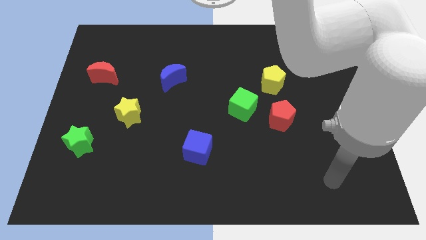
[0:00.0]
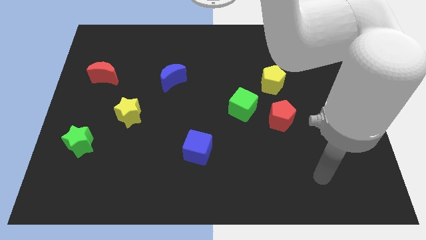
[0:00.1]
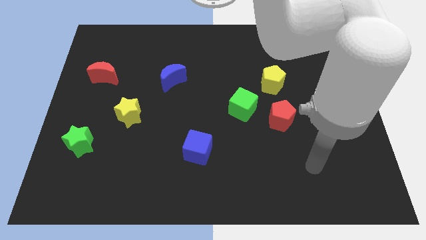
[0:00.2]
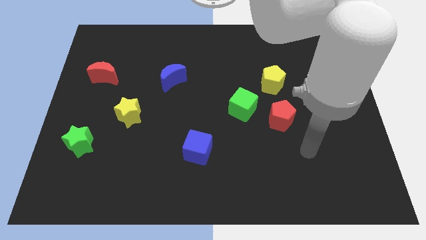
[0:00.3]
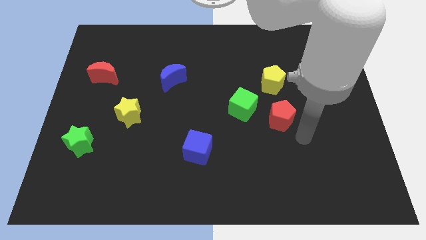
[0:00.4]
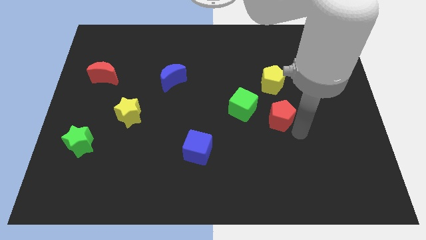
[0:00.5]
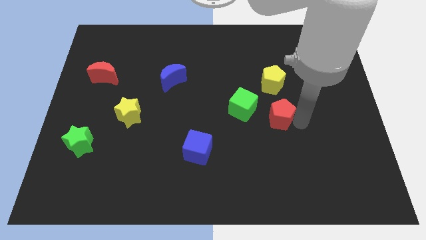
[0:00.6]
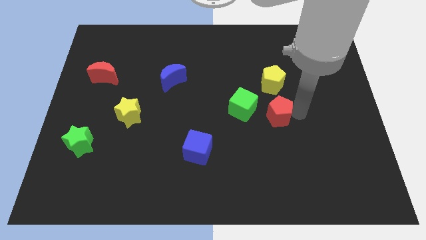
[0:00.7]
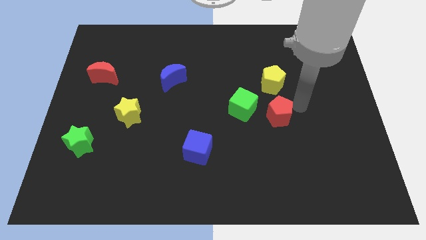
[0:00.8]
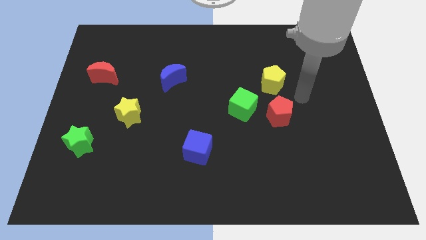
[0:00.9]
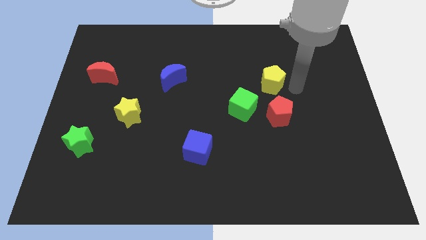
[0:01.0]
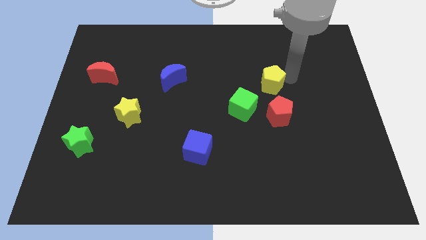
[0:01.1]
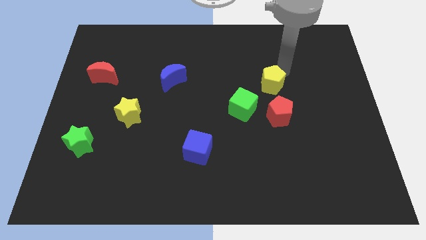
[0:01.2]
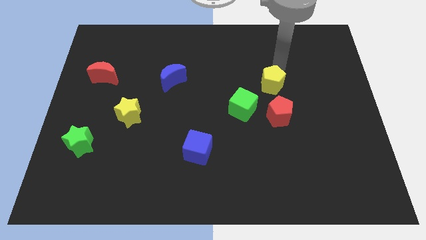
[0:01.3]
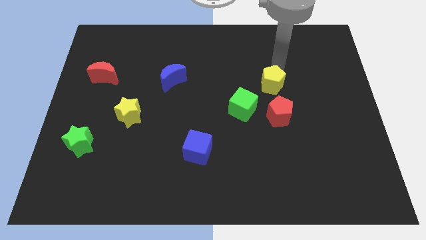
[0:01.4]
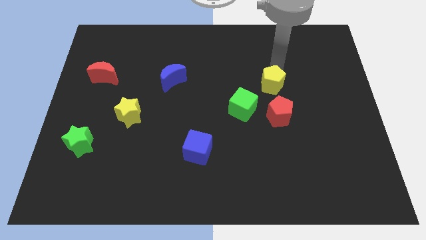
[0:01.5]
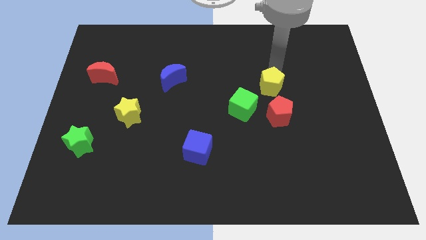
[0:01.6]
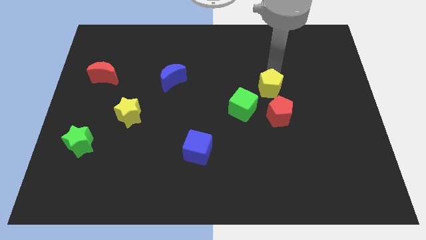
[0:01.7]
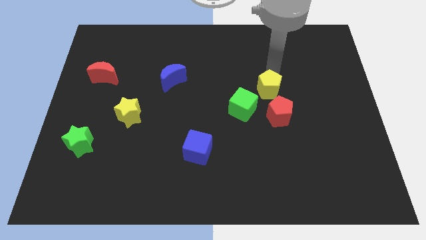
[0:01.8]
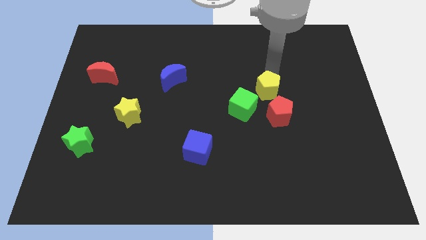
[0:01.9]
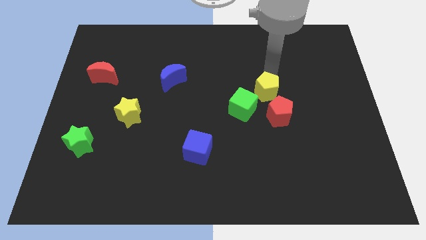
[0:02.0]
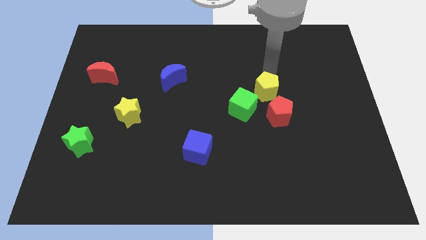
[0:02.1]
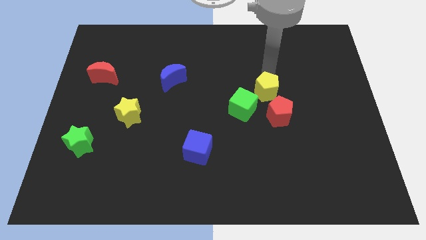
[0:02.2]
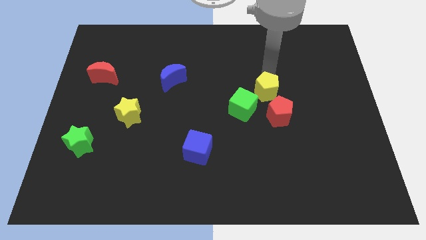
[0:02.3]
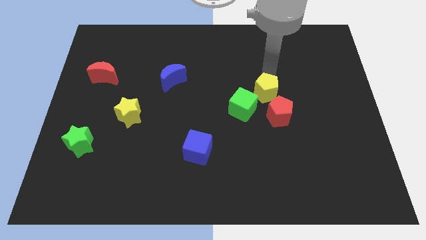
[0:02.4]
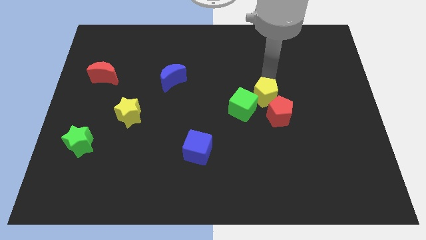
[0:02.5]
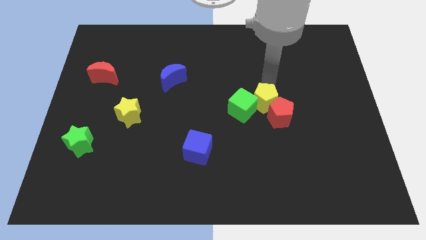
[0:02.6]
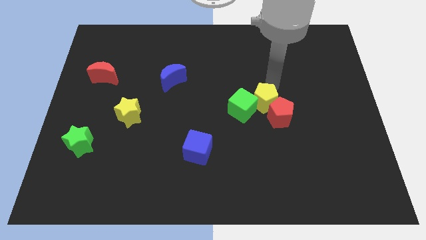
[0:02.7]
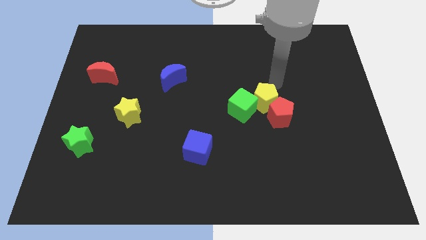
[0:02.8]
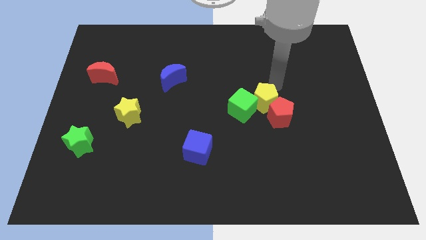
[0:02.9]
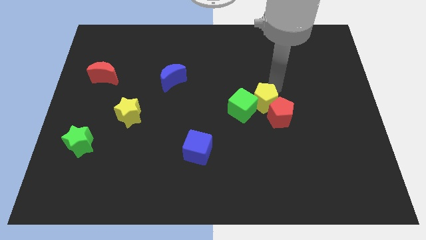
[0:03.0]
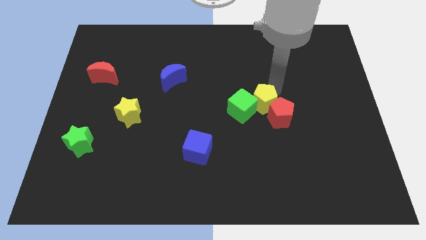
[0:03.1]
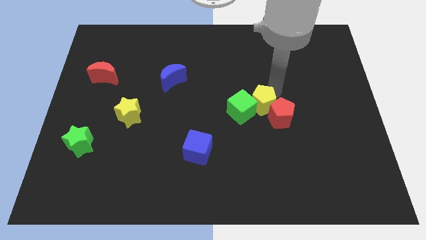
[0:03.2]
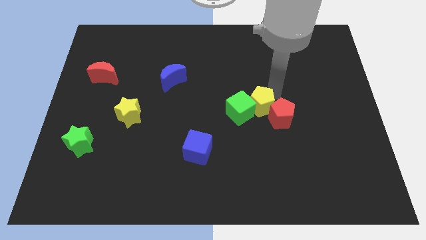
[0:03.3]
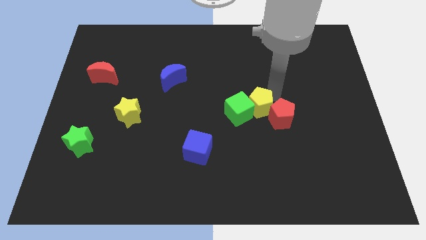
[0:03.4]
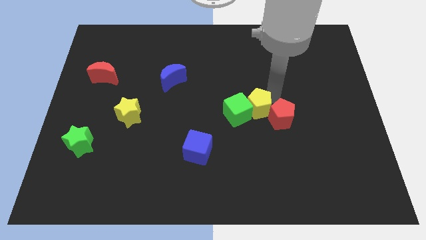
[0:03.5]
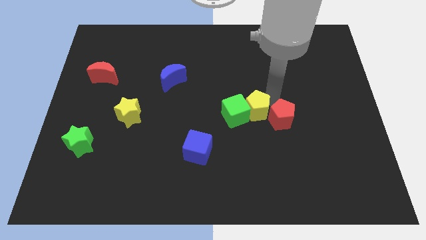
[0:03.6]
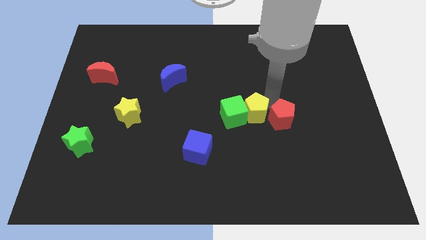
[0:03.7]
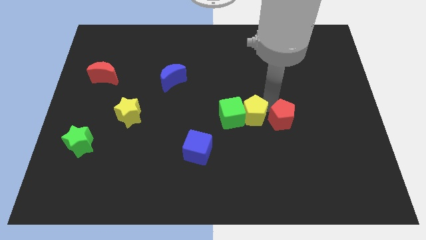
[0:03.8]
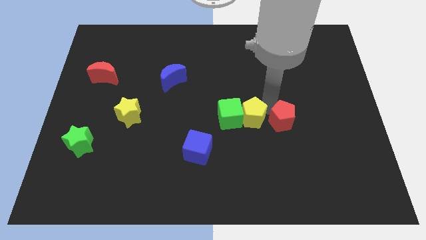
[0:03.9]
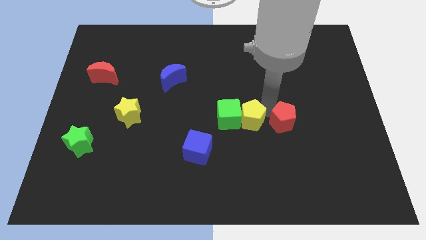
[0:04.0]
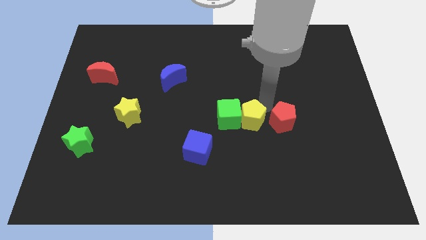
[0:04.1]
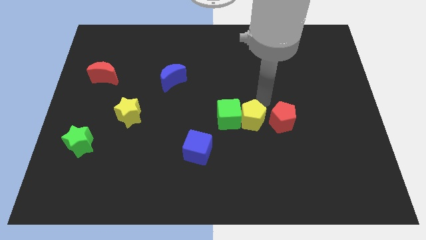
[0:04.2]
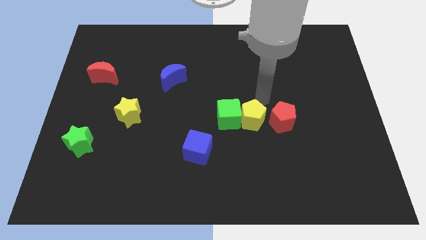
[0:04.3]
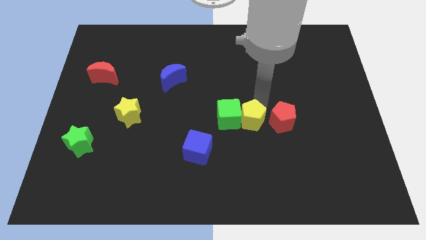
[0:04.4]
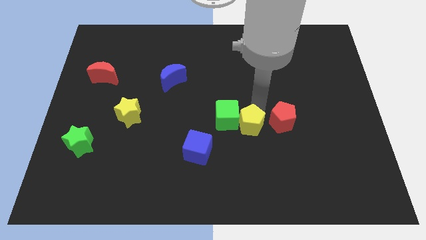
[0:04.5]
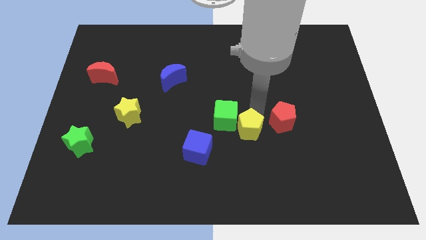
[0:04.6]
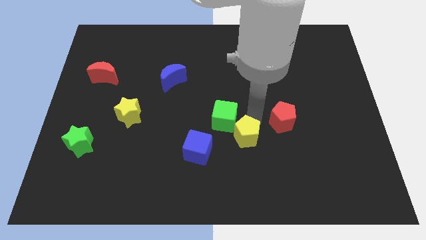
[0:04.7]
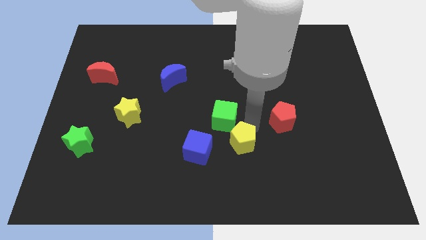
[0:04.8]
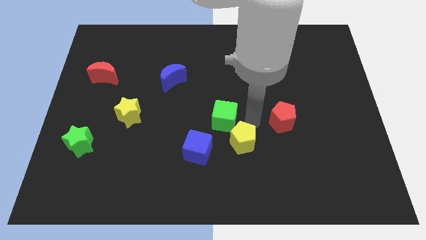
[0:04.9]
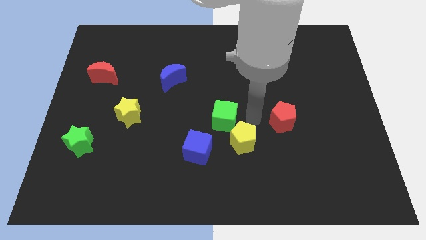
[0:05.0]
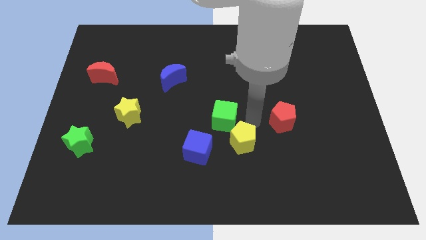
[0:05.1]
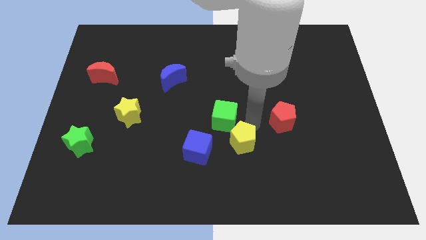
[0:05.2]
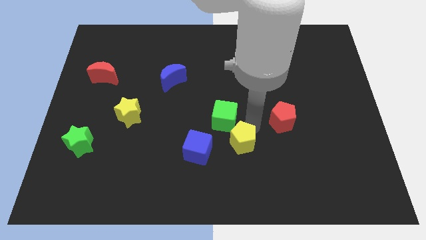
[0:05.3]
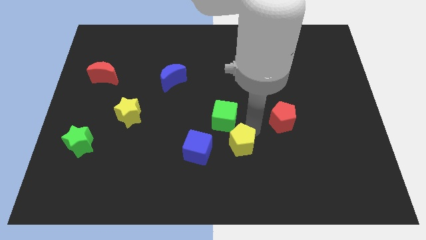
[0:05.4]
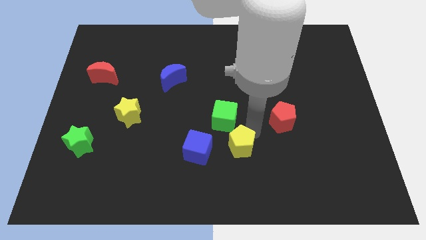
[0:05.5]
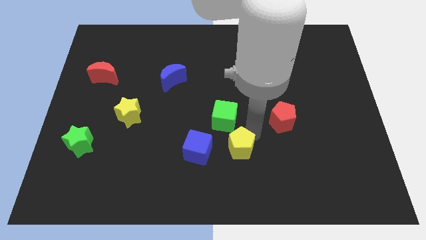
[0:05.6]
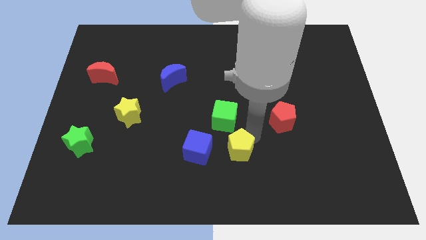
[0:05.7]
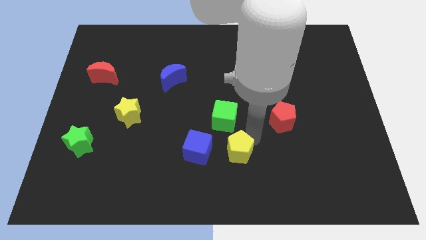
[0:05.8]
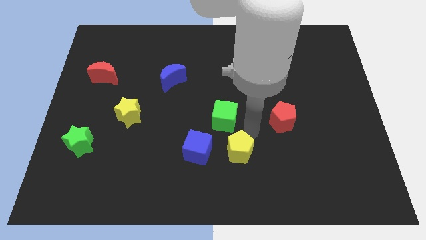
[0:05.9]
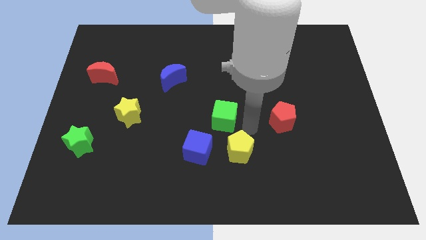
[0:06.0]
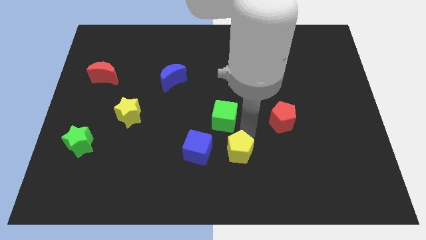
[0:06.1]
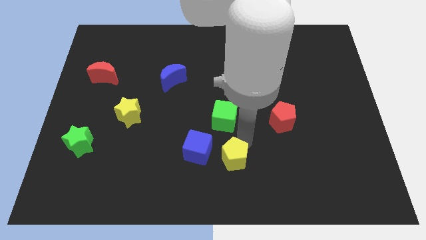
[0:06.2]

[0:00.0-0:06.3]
slide the yellow pentagon to the bottom

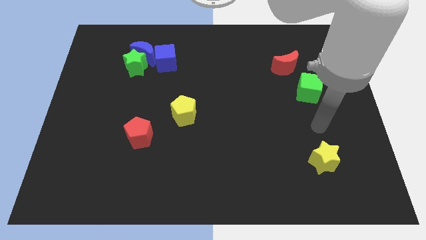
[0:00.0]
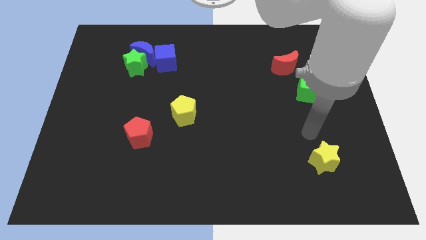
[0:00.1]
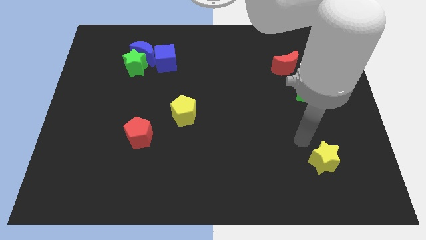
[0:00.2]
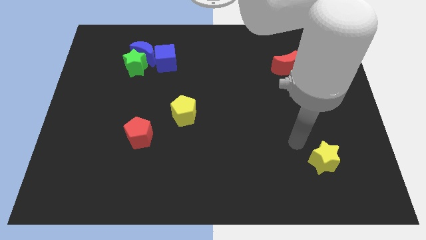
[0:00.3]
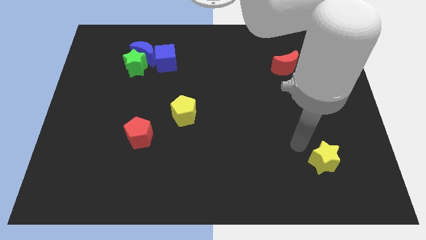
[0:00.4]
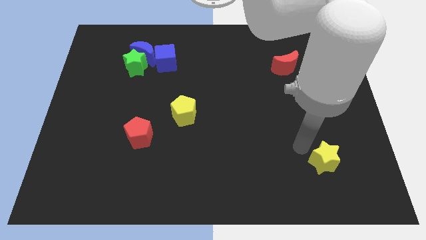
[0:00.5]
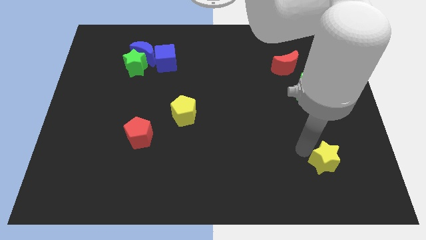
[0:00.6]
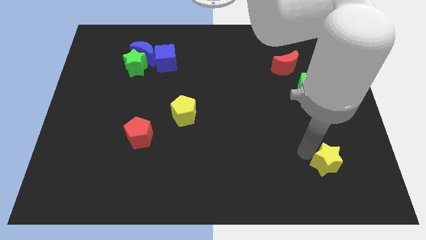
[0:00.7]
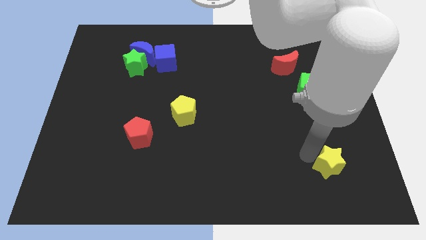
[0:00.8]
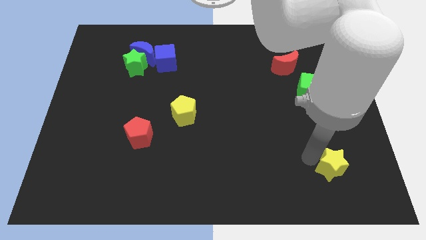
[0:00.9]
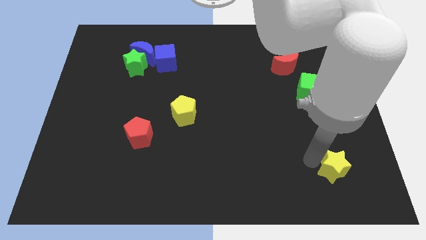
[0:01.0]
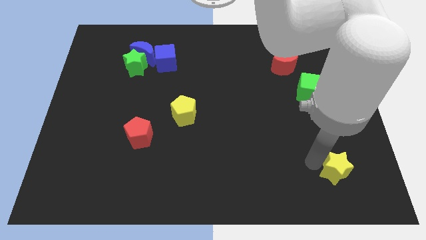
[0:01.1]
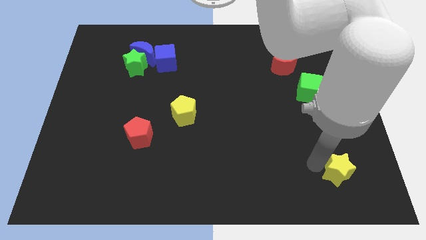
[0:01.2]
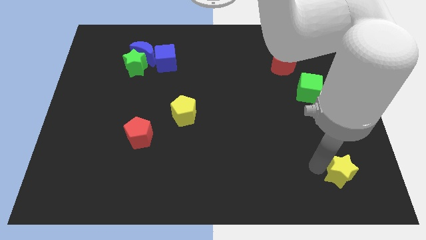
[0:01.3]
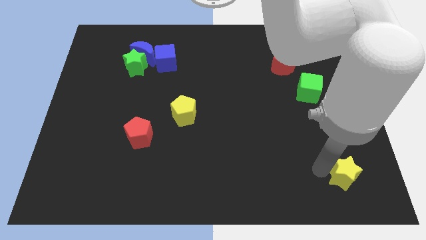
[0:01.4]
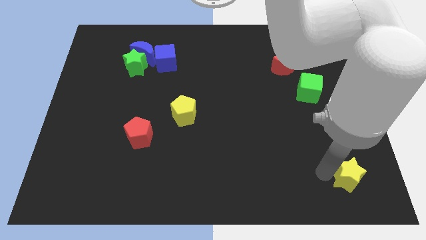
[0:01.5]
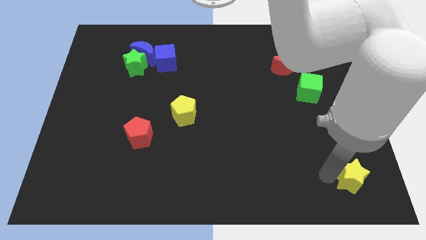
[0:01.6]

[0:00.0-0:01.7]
move the yellow star to the bottom right
